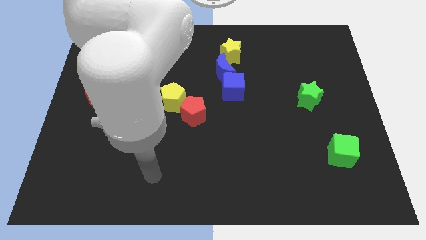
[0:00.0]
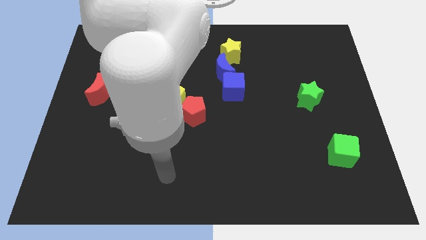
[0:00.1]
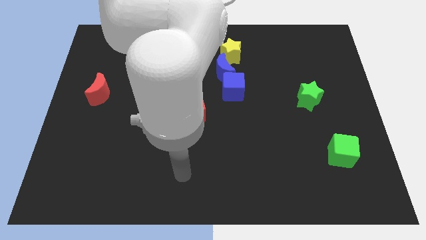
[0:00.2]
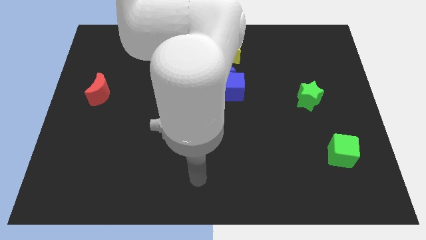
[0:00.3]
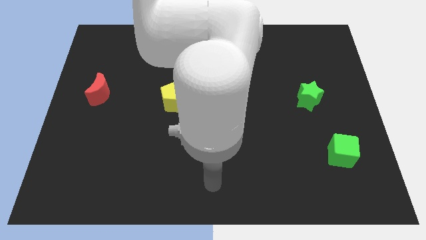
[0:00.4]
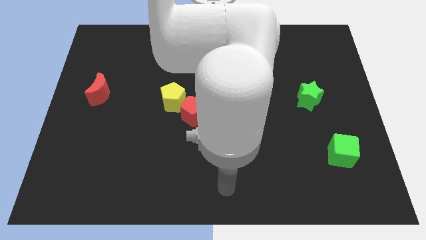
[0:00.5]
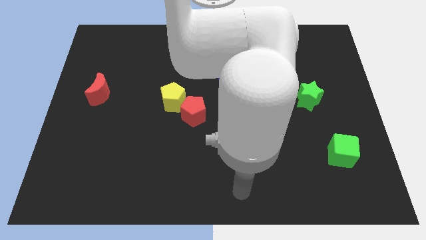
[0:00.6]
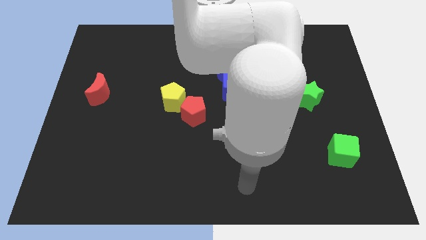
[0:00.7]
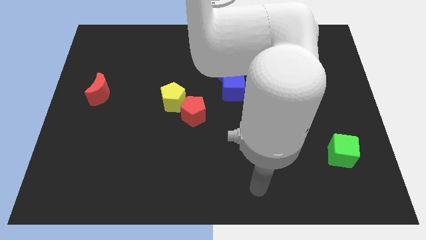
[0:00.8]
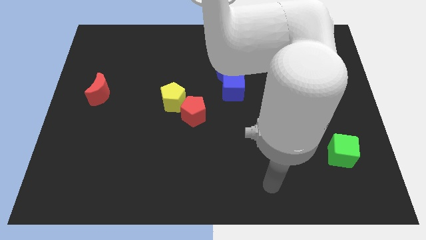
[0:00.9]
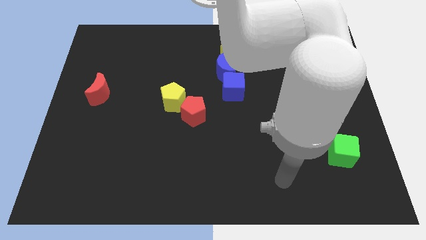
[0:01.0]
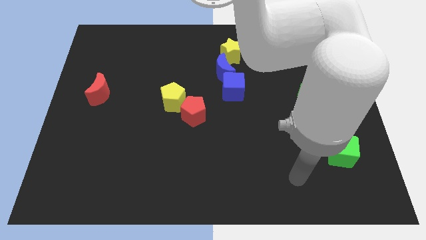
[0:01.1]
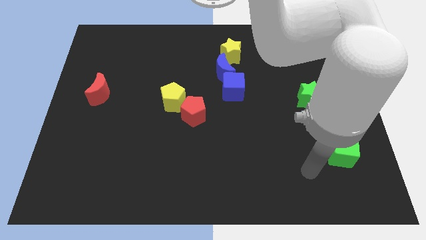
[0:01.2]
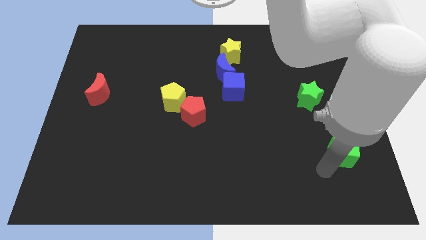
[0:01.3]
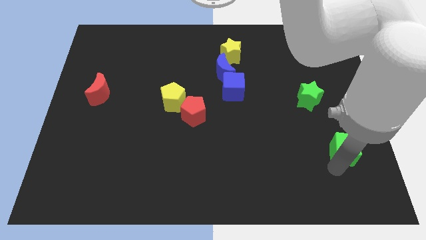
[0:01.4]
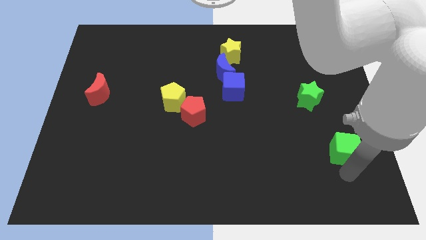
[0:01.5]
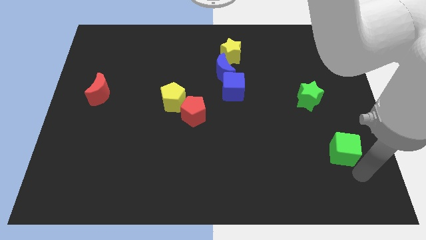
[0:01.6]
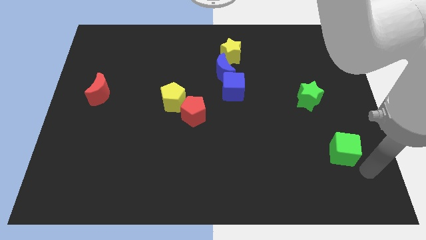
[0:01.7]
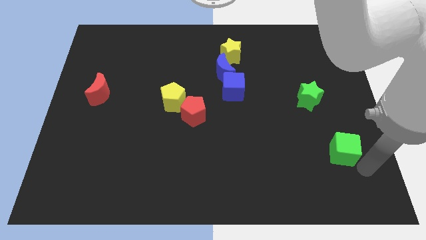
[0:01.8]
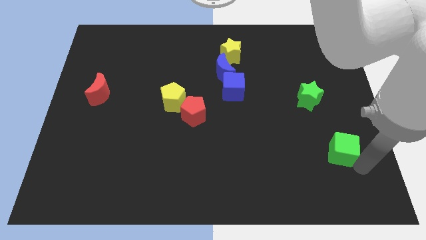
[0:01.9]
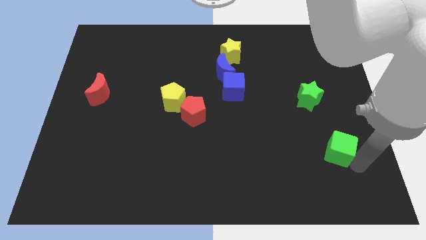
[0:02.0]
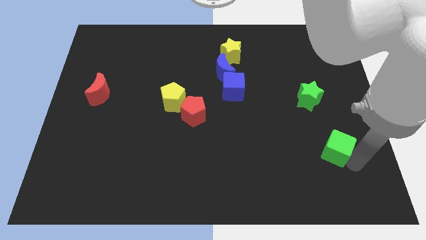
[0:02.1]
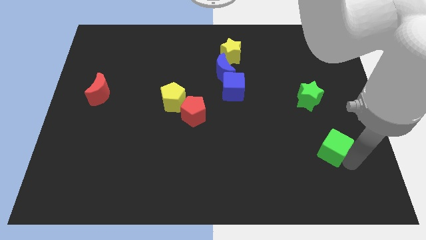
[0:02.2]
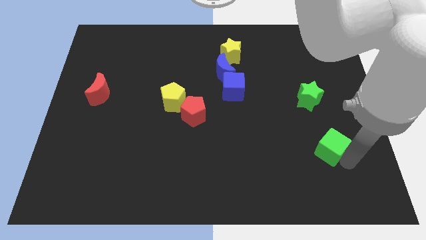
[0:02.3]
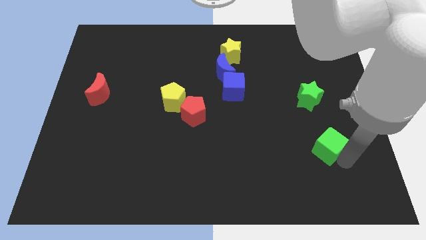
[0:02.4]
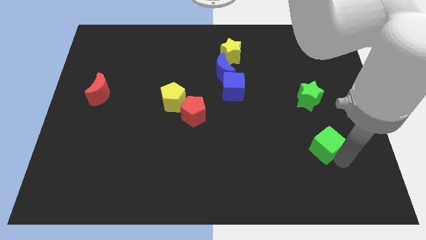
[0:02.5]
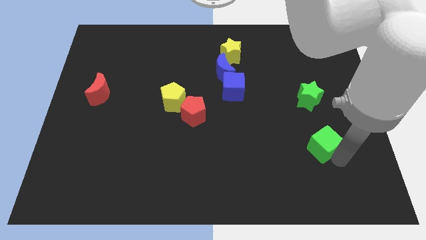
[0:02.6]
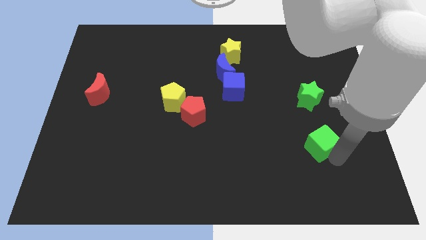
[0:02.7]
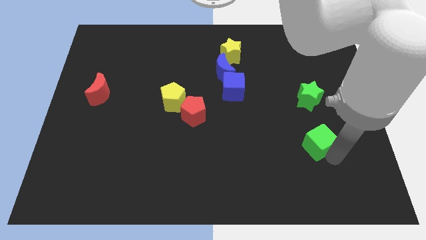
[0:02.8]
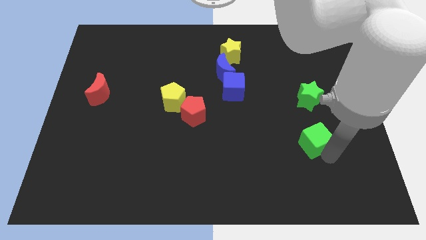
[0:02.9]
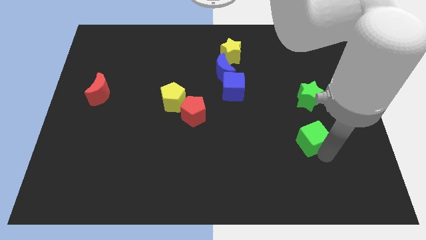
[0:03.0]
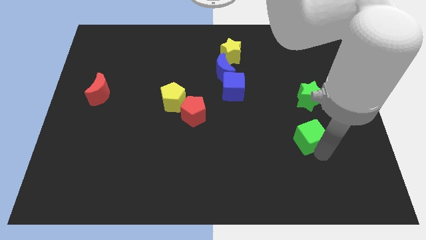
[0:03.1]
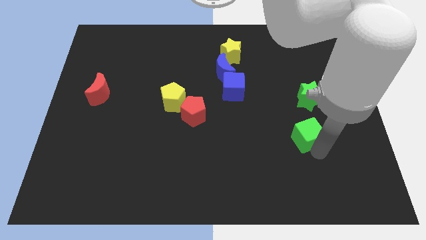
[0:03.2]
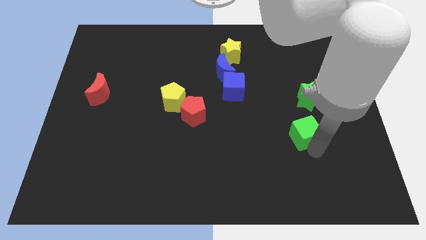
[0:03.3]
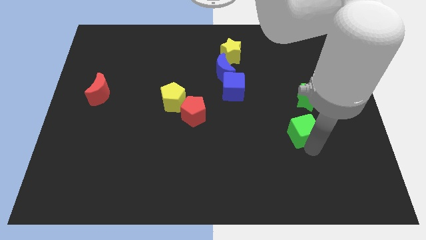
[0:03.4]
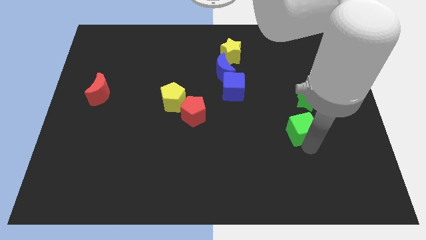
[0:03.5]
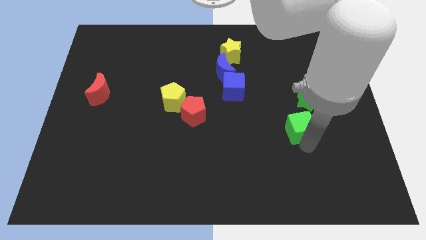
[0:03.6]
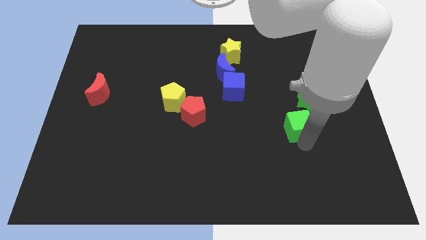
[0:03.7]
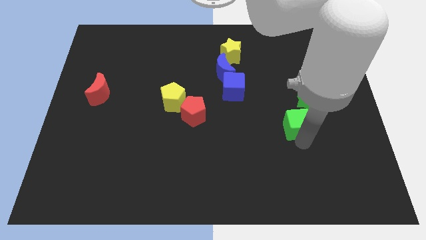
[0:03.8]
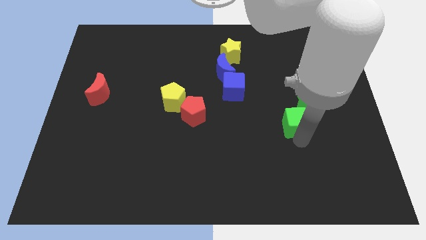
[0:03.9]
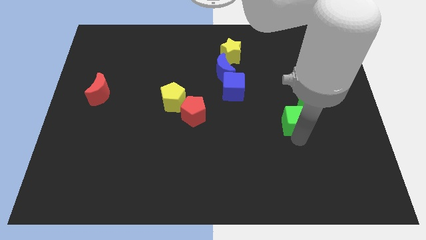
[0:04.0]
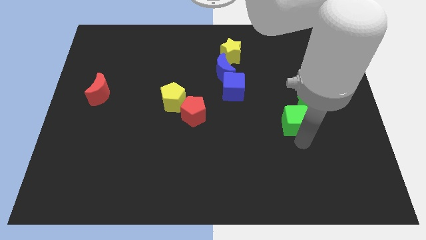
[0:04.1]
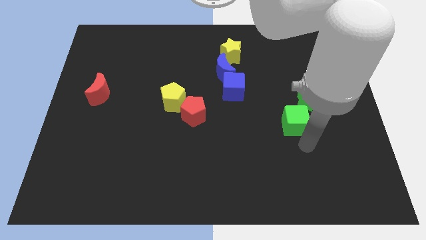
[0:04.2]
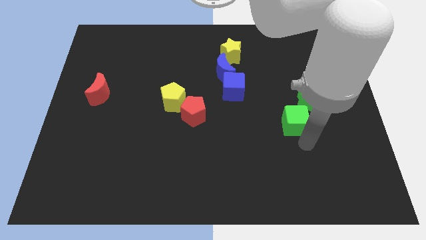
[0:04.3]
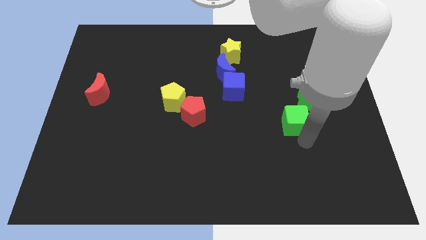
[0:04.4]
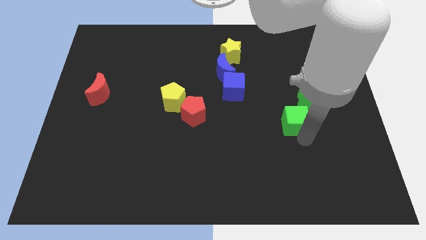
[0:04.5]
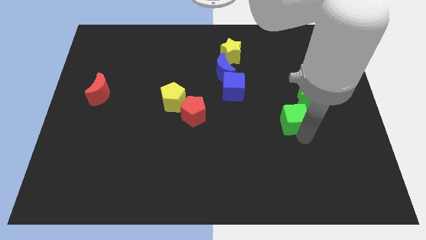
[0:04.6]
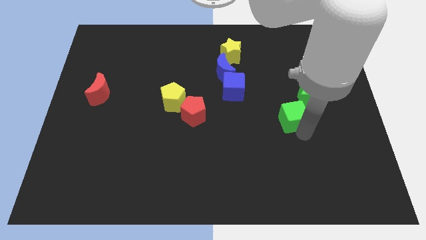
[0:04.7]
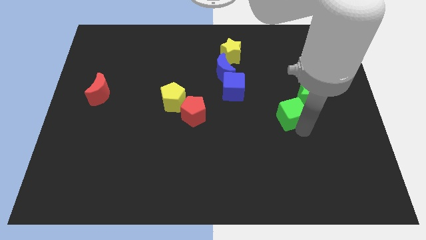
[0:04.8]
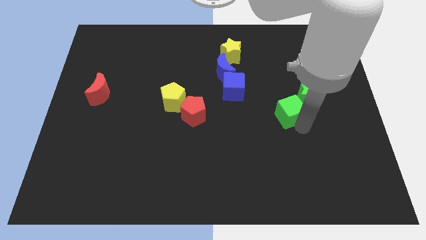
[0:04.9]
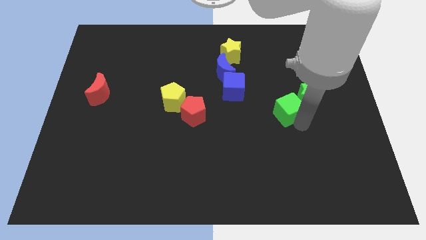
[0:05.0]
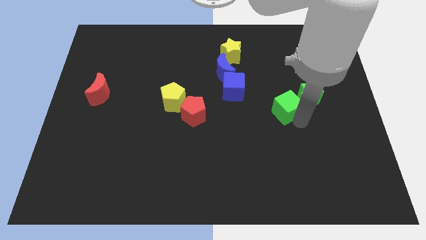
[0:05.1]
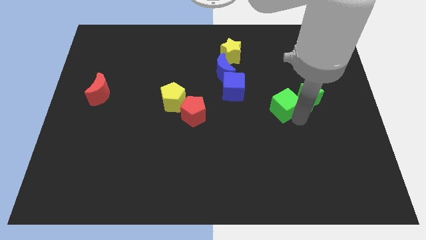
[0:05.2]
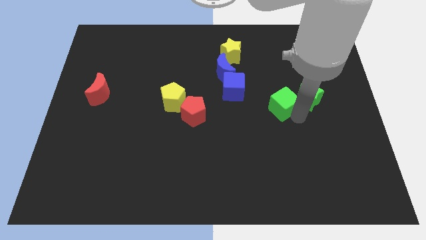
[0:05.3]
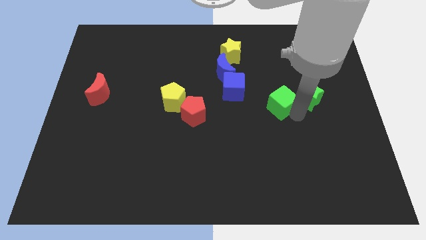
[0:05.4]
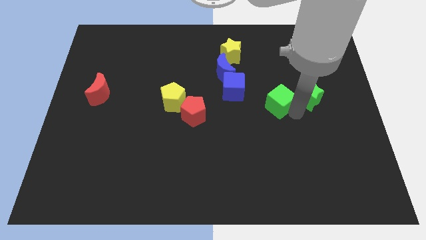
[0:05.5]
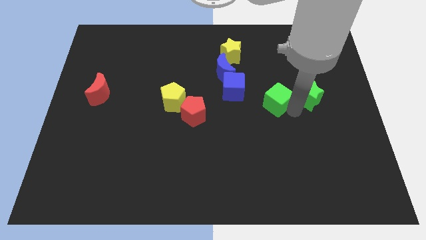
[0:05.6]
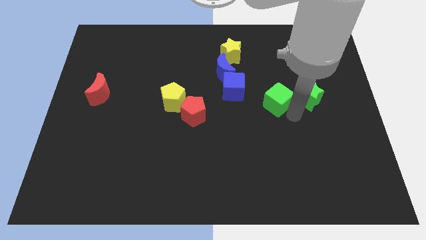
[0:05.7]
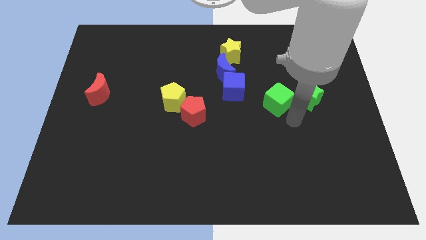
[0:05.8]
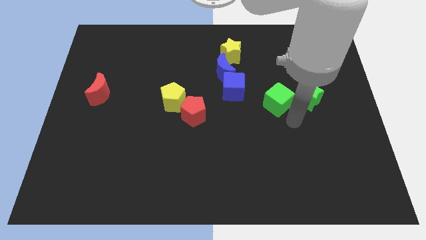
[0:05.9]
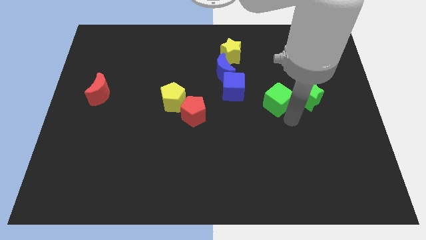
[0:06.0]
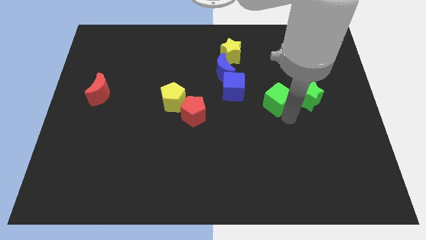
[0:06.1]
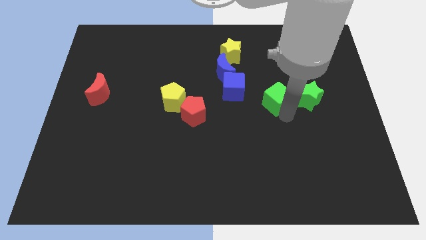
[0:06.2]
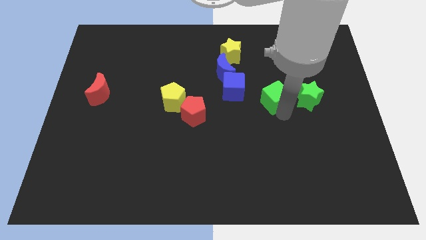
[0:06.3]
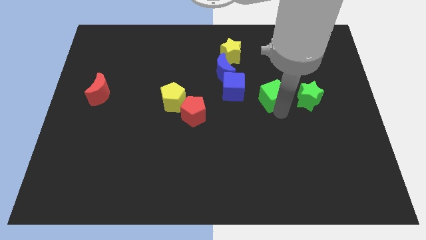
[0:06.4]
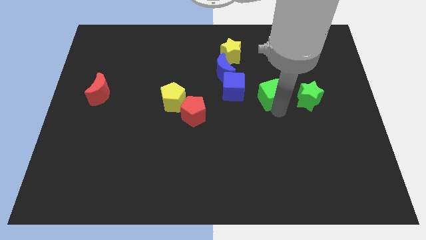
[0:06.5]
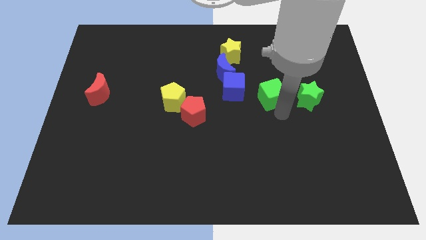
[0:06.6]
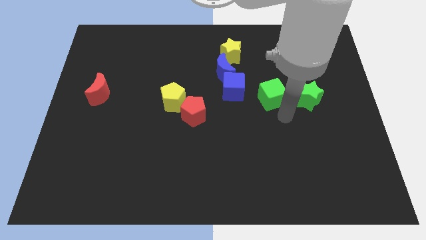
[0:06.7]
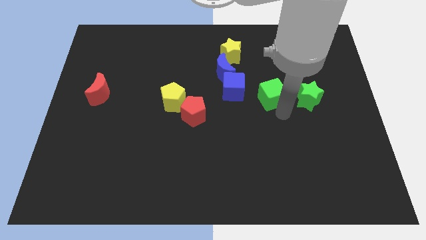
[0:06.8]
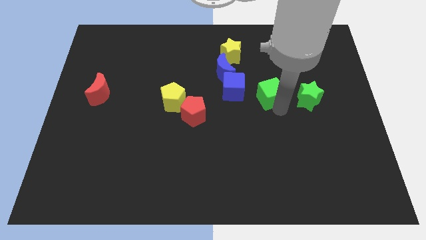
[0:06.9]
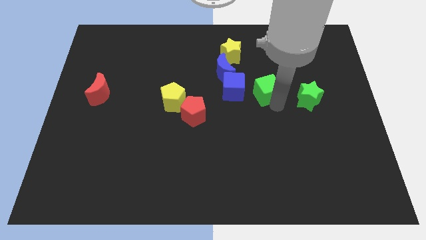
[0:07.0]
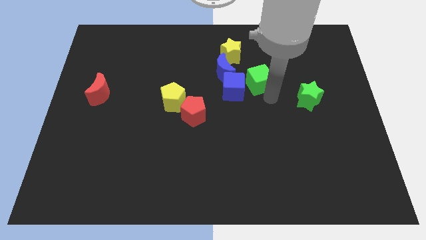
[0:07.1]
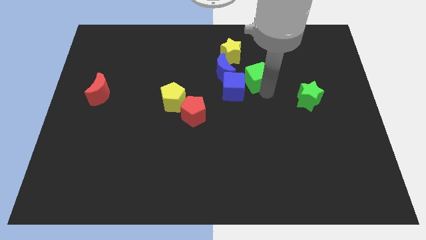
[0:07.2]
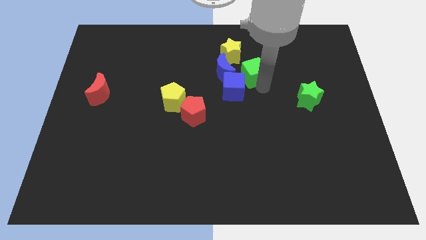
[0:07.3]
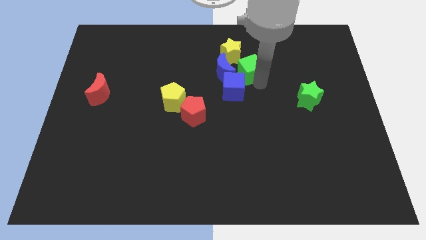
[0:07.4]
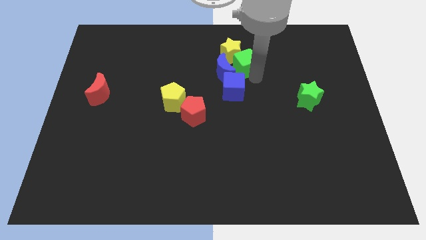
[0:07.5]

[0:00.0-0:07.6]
put the green cube next to the yellow star
